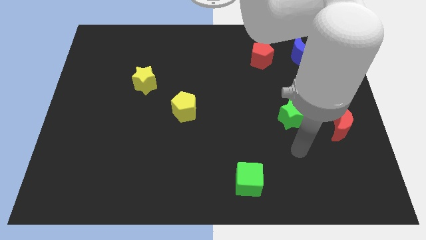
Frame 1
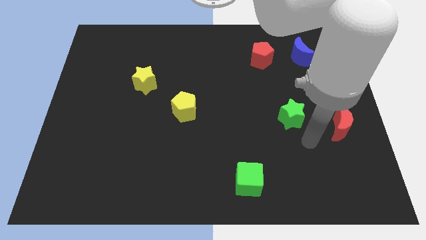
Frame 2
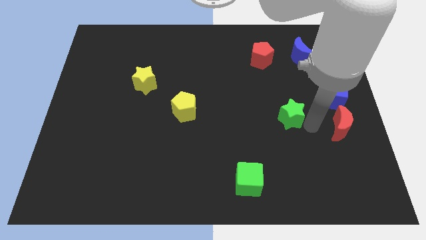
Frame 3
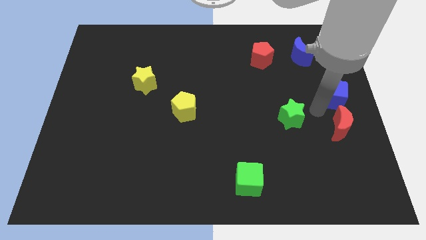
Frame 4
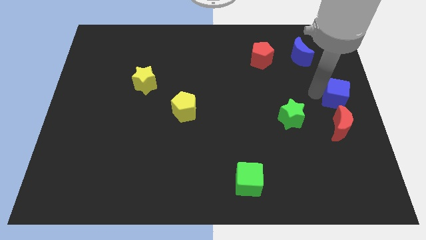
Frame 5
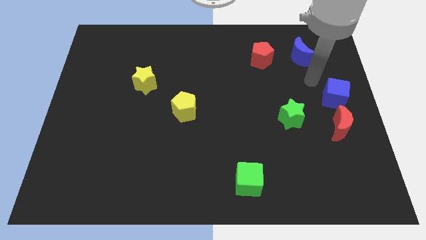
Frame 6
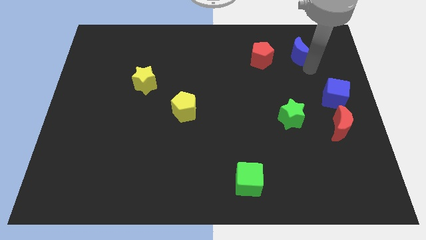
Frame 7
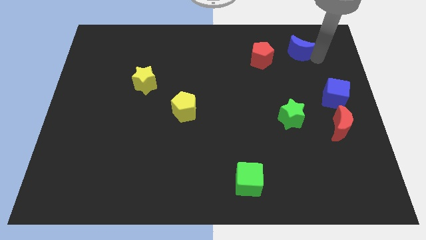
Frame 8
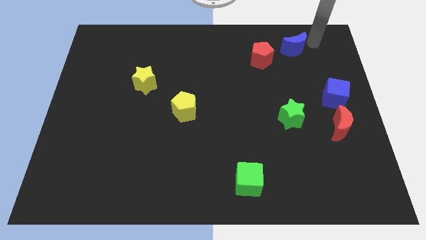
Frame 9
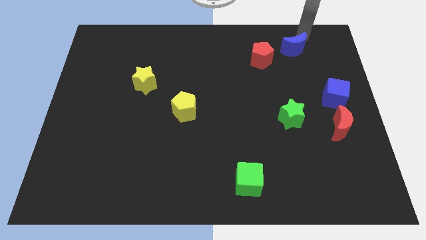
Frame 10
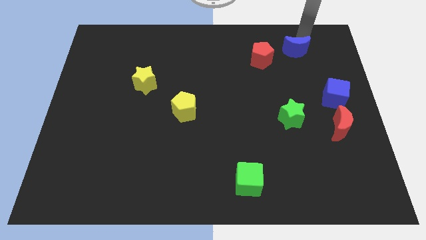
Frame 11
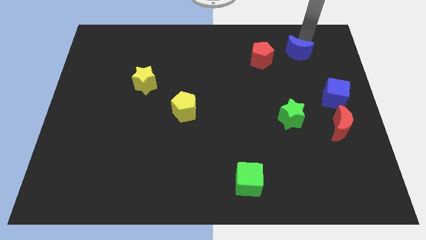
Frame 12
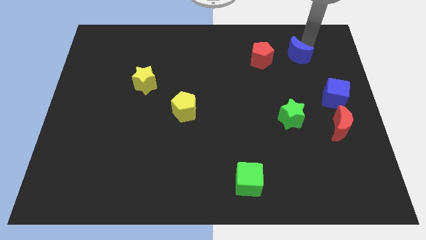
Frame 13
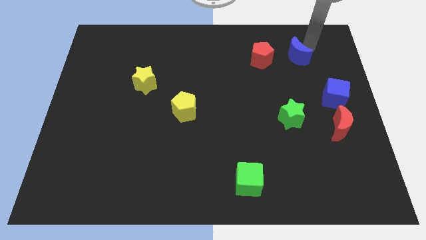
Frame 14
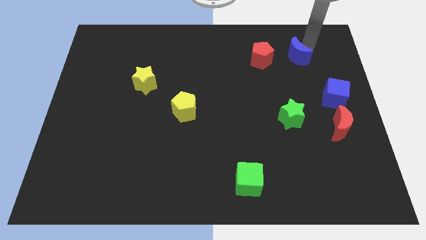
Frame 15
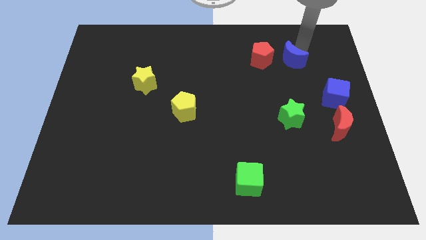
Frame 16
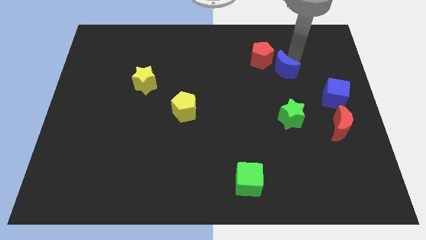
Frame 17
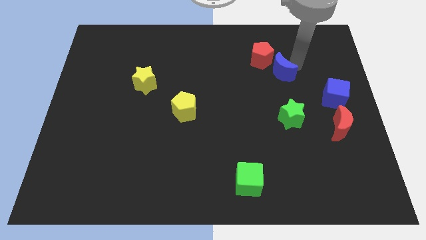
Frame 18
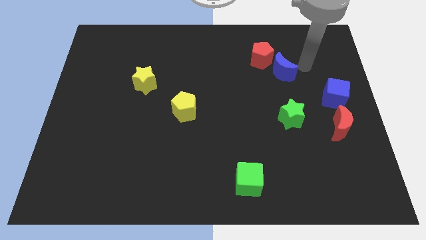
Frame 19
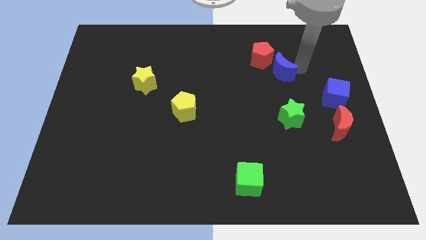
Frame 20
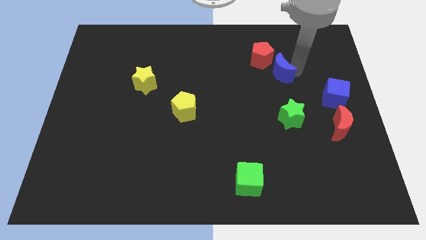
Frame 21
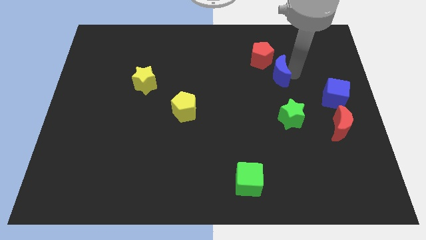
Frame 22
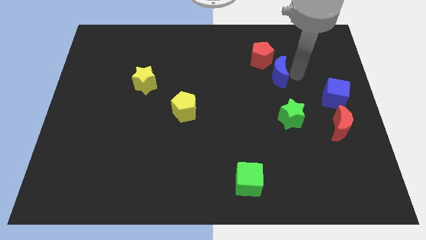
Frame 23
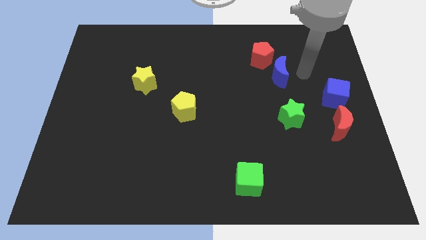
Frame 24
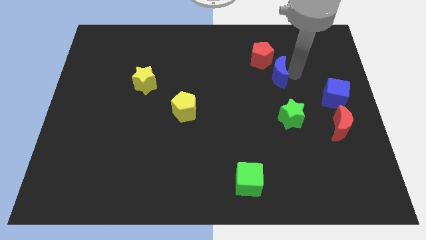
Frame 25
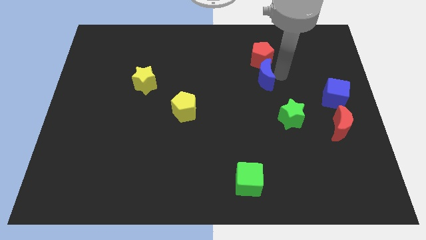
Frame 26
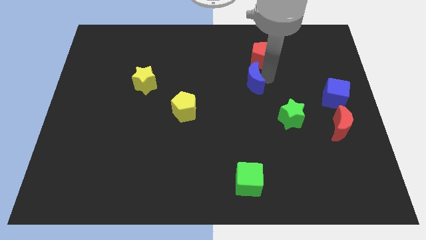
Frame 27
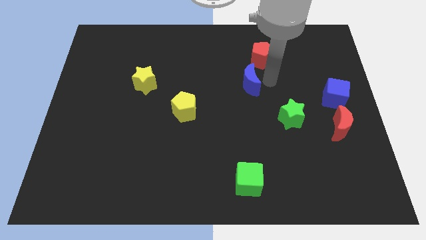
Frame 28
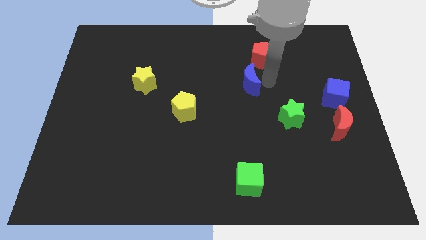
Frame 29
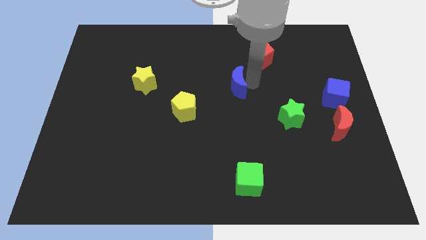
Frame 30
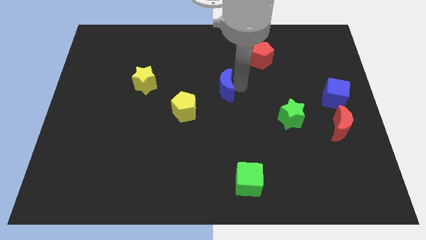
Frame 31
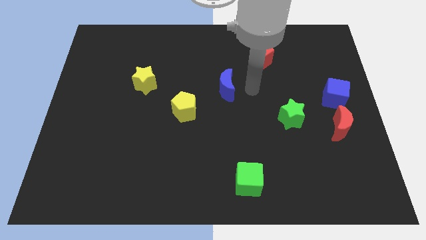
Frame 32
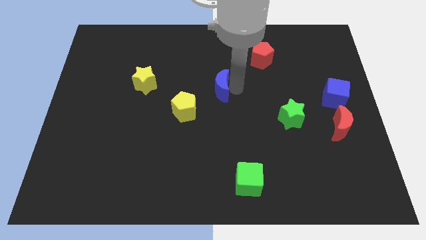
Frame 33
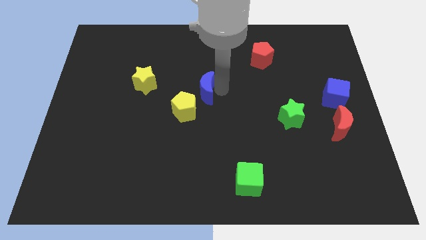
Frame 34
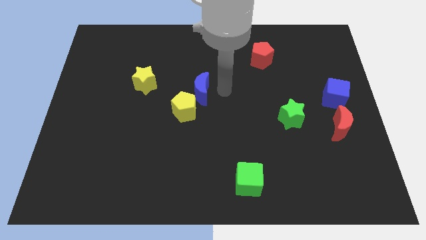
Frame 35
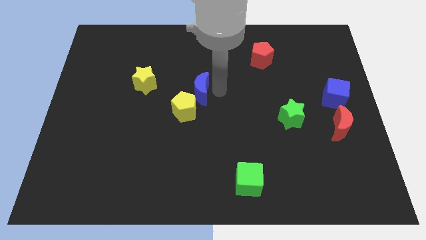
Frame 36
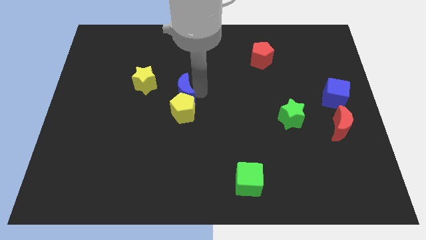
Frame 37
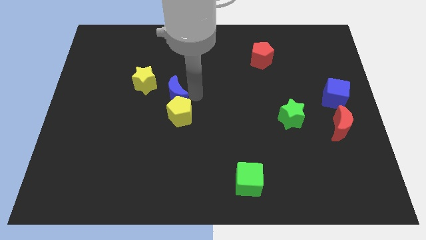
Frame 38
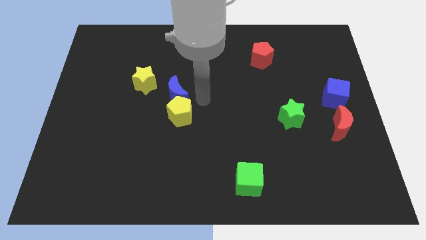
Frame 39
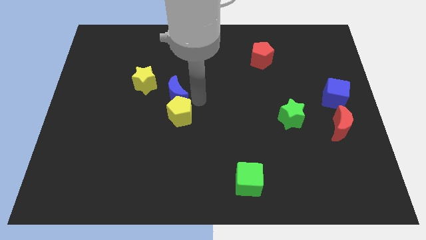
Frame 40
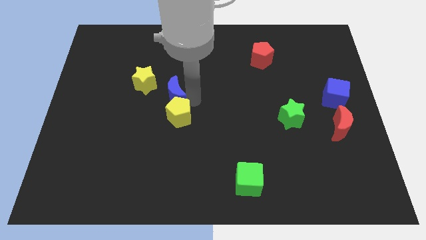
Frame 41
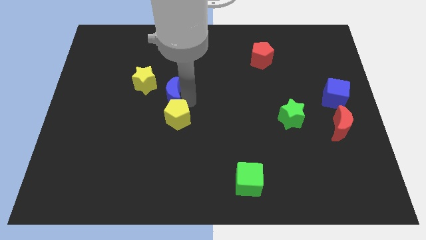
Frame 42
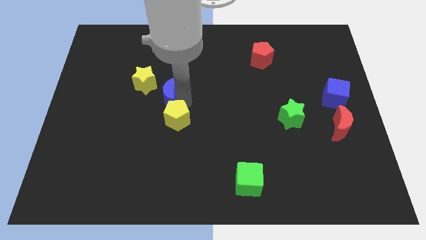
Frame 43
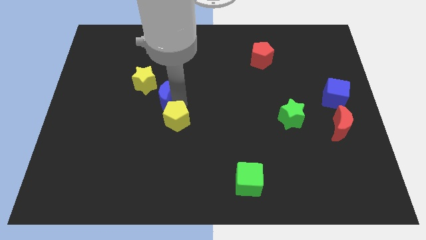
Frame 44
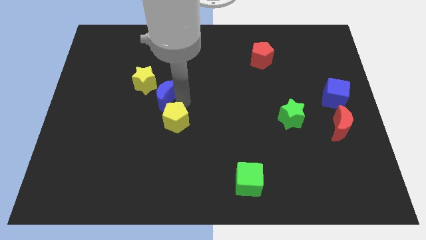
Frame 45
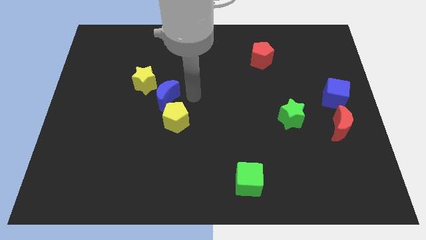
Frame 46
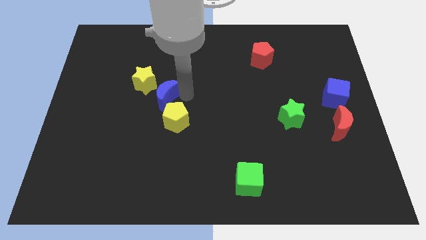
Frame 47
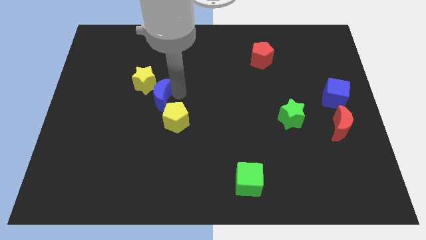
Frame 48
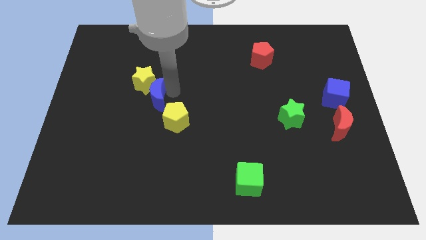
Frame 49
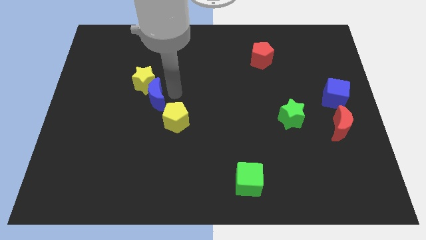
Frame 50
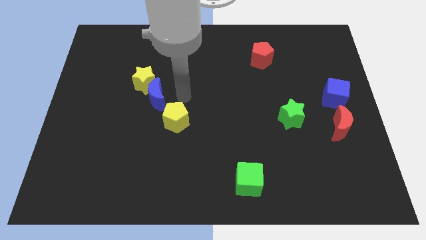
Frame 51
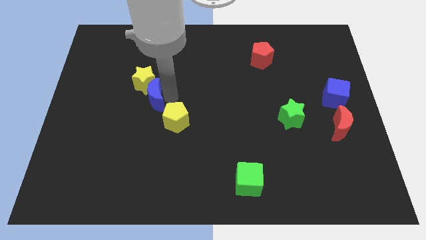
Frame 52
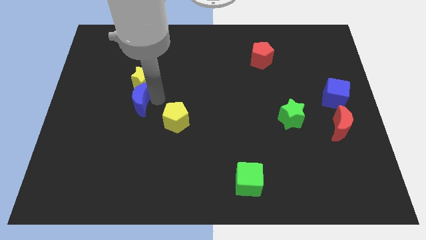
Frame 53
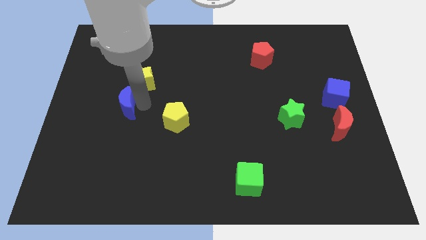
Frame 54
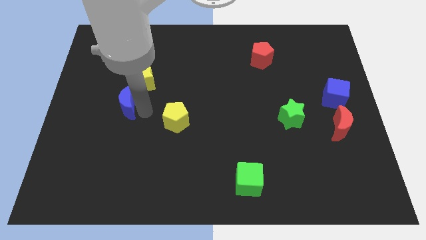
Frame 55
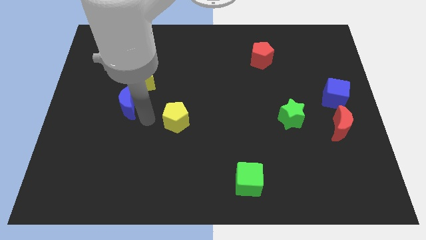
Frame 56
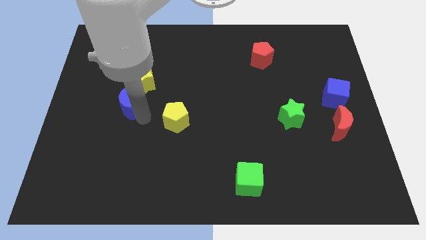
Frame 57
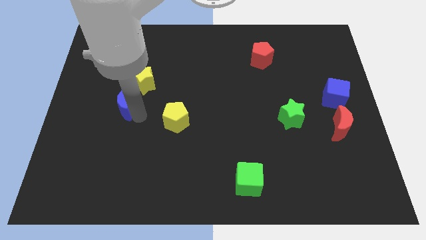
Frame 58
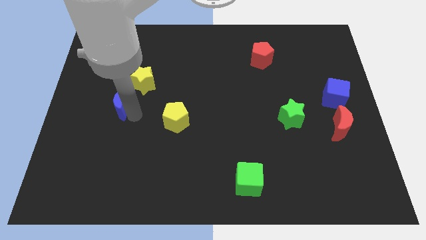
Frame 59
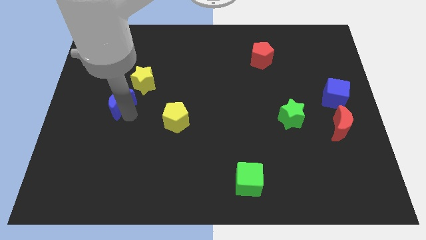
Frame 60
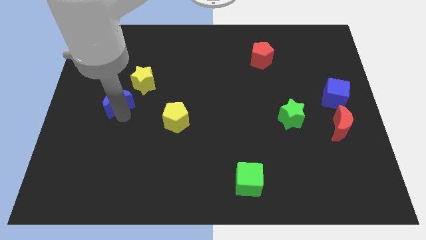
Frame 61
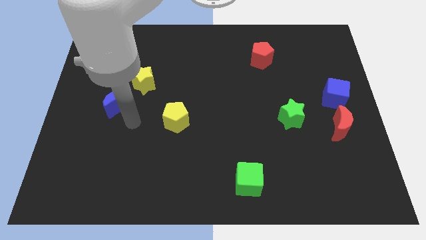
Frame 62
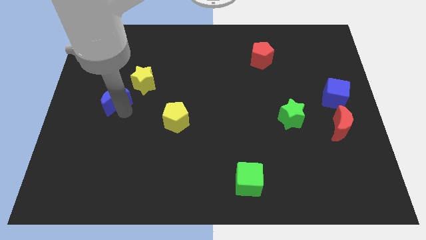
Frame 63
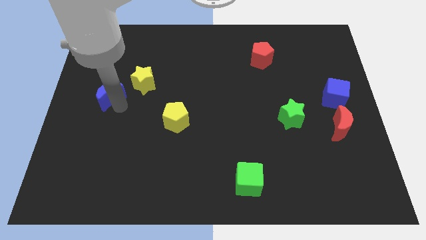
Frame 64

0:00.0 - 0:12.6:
put the blue moon to the left side of the yellow star
